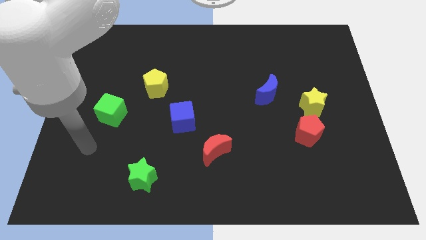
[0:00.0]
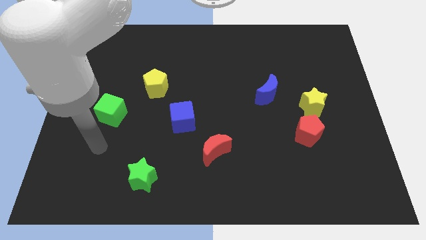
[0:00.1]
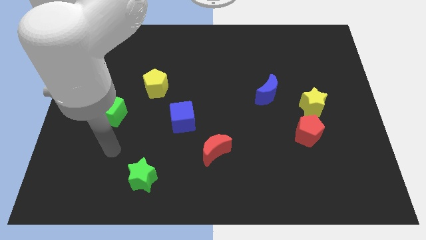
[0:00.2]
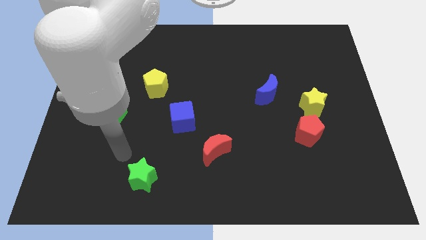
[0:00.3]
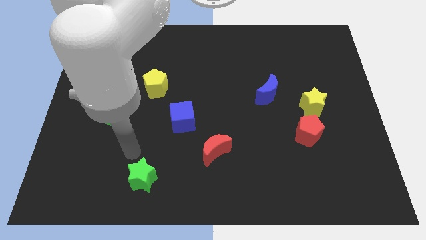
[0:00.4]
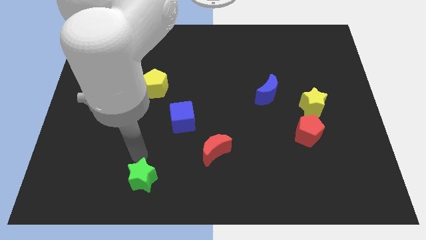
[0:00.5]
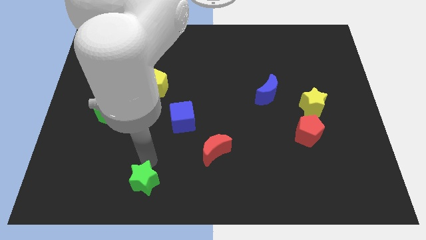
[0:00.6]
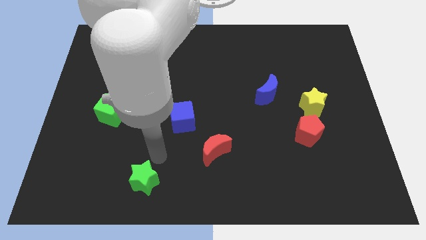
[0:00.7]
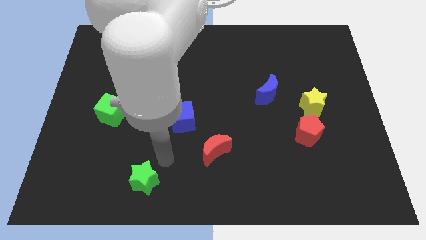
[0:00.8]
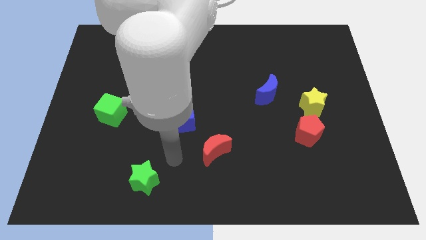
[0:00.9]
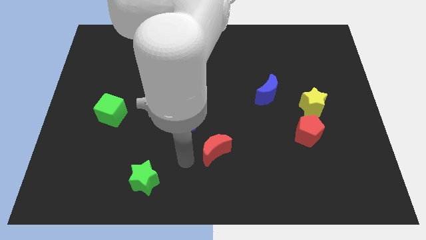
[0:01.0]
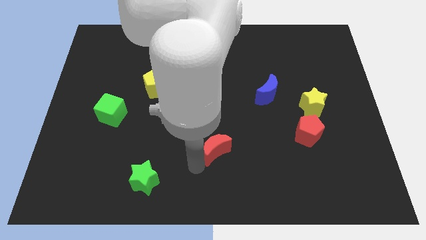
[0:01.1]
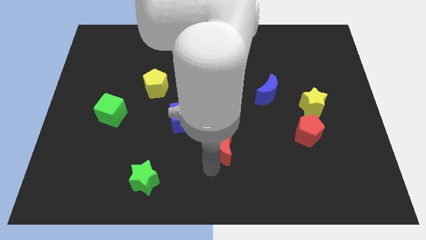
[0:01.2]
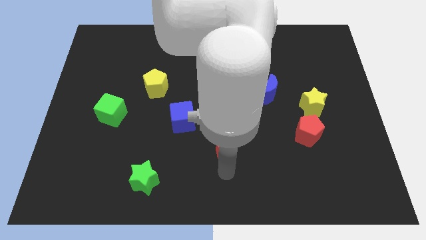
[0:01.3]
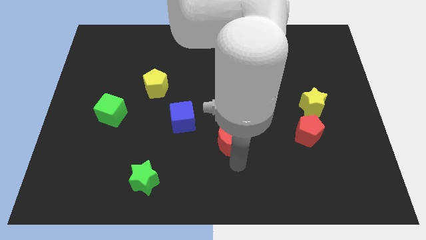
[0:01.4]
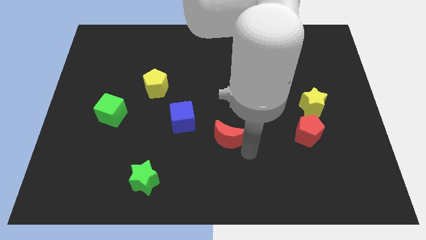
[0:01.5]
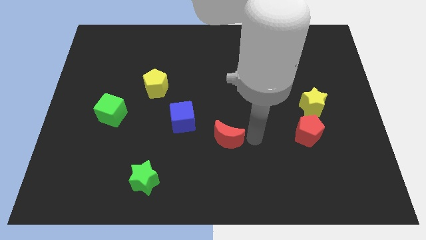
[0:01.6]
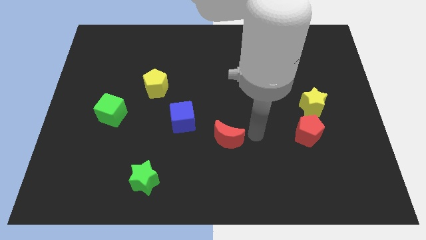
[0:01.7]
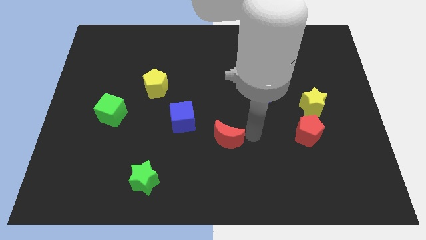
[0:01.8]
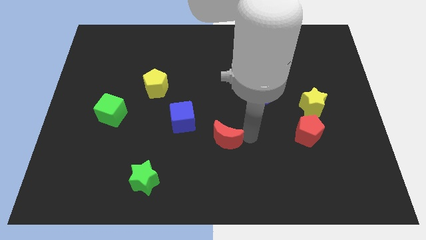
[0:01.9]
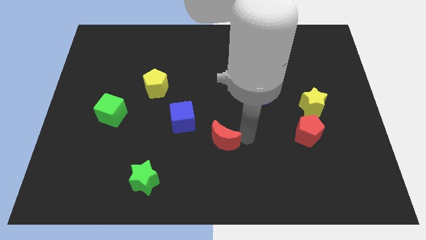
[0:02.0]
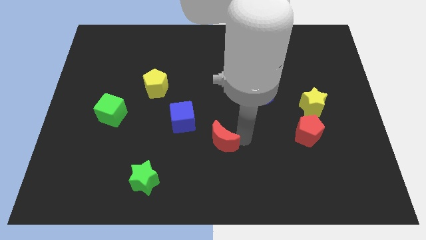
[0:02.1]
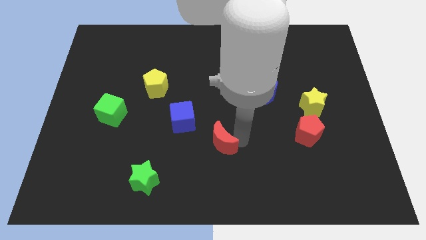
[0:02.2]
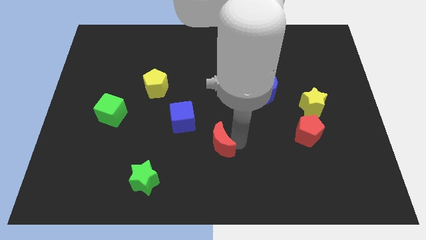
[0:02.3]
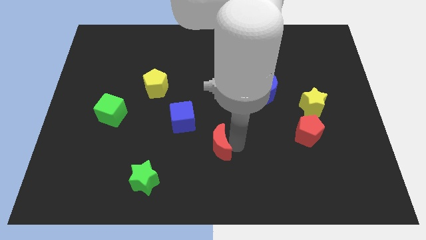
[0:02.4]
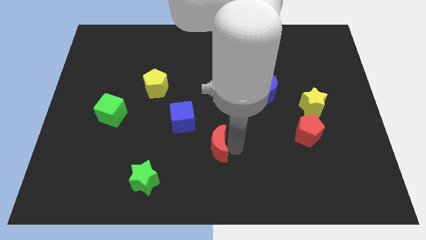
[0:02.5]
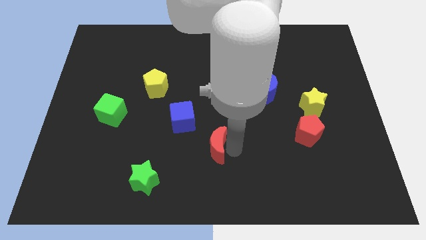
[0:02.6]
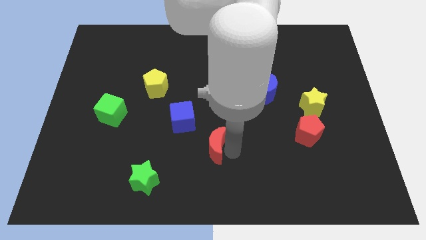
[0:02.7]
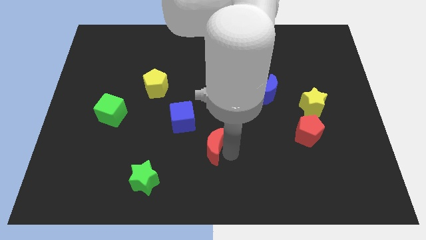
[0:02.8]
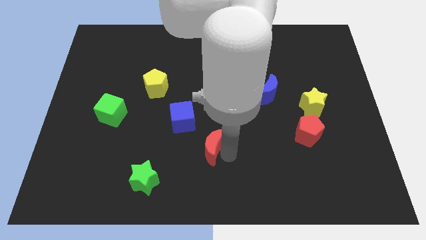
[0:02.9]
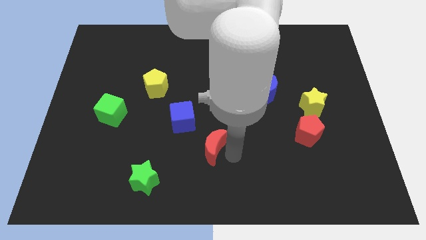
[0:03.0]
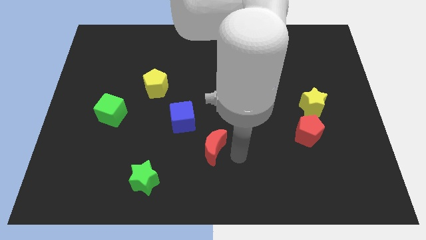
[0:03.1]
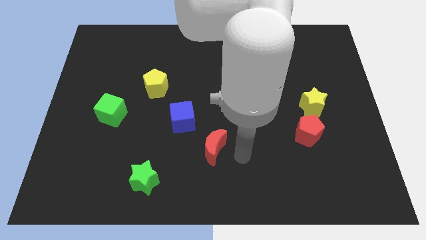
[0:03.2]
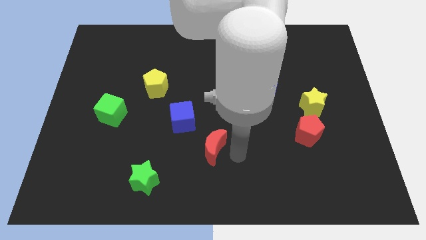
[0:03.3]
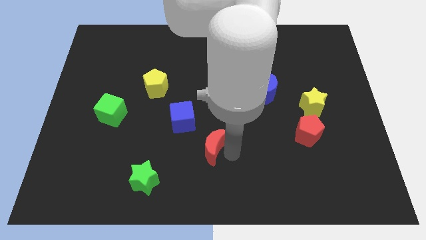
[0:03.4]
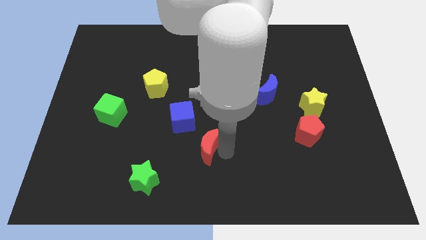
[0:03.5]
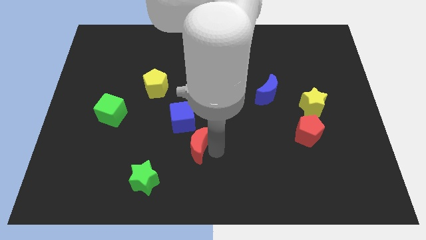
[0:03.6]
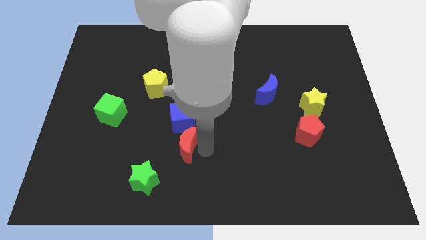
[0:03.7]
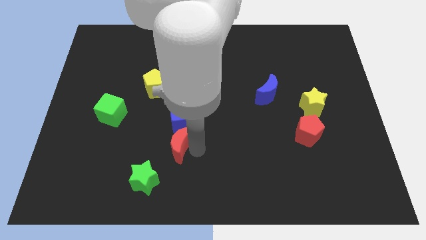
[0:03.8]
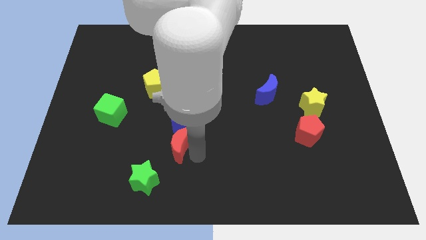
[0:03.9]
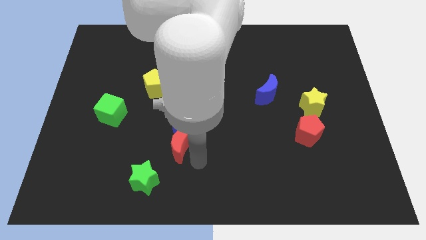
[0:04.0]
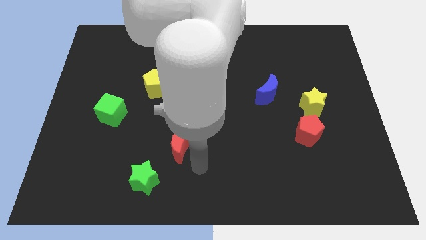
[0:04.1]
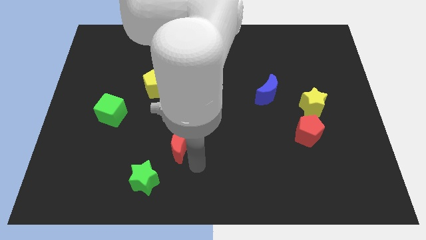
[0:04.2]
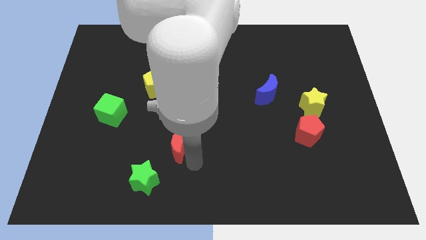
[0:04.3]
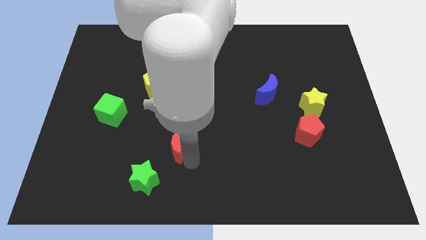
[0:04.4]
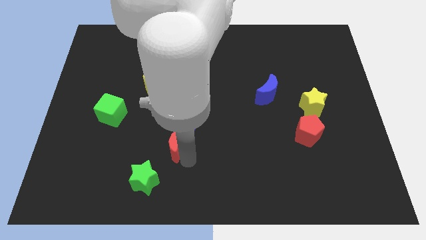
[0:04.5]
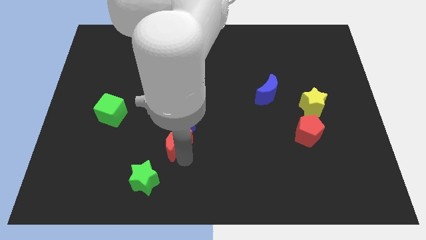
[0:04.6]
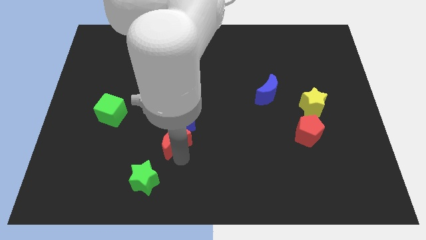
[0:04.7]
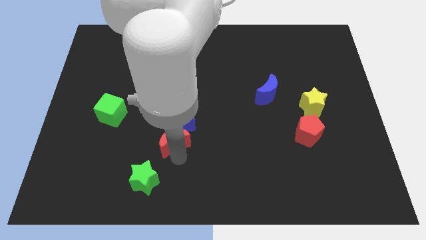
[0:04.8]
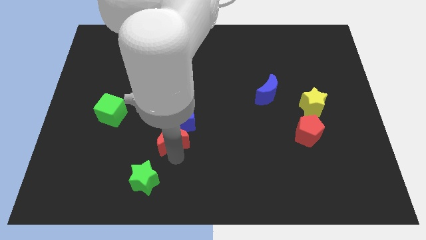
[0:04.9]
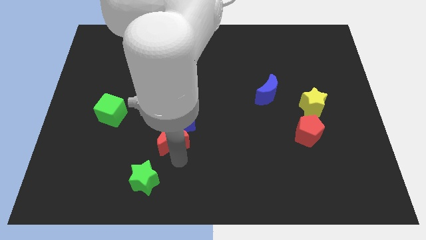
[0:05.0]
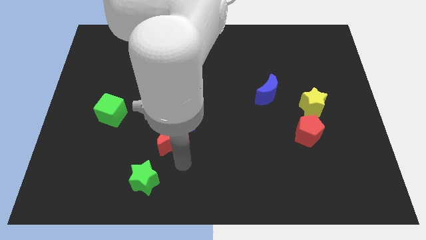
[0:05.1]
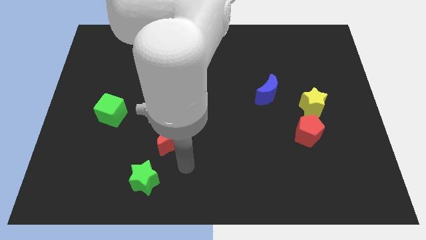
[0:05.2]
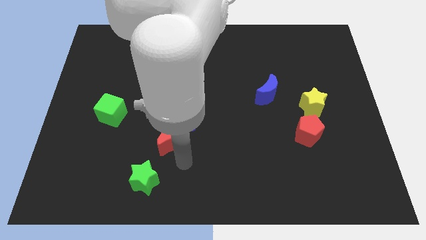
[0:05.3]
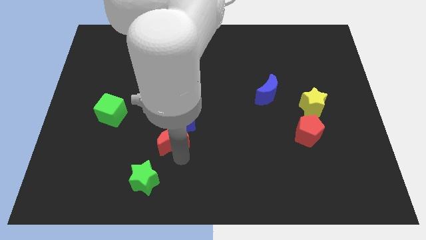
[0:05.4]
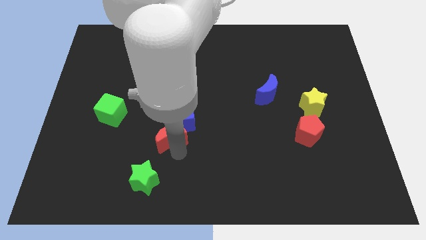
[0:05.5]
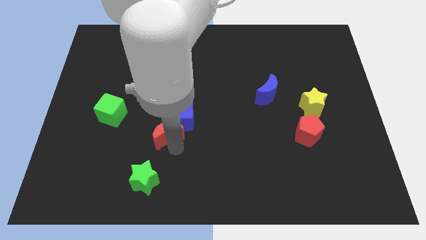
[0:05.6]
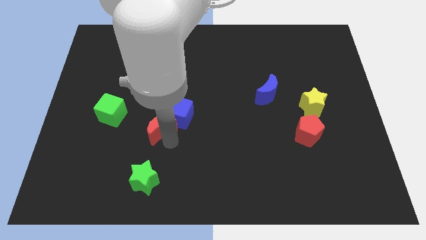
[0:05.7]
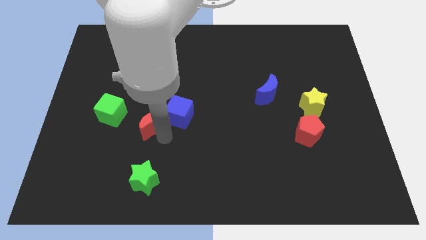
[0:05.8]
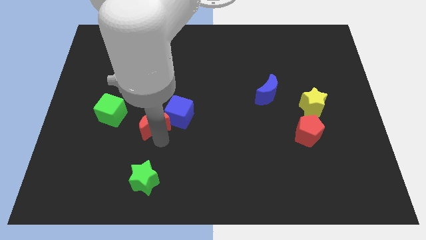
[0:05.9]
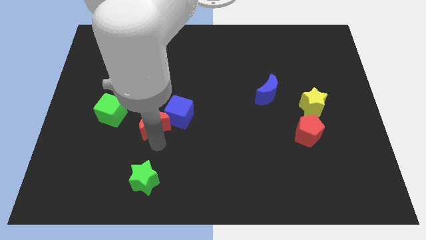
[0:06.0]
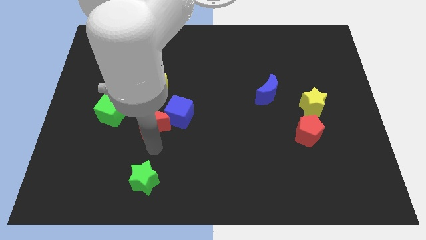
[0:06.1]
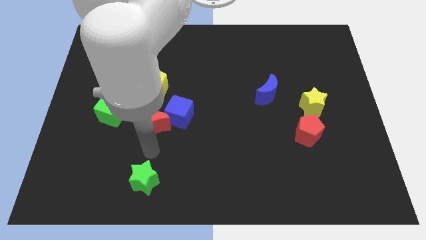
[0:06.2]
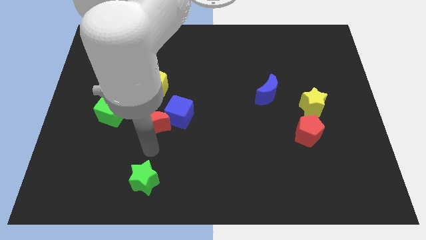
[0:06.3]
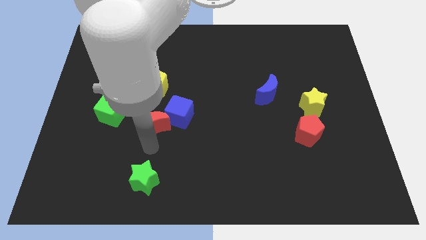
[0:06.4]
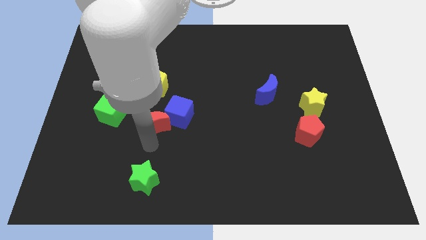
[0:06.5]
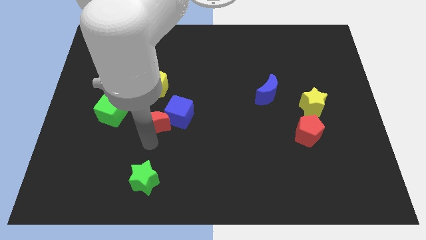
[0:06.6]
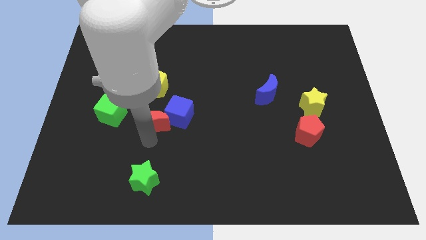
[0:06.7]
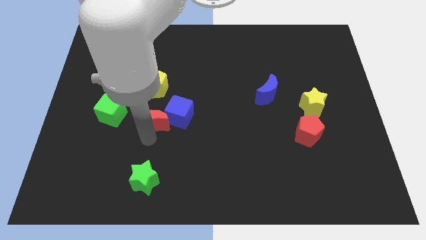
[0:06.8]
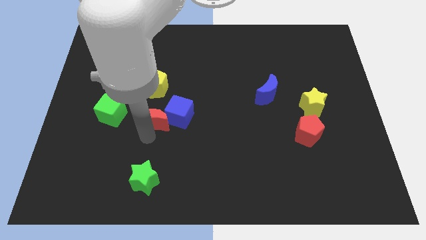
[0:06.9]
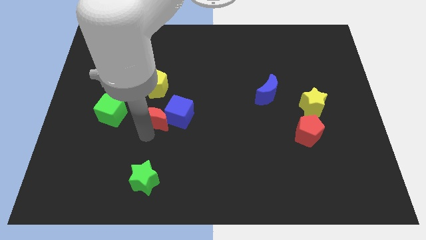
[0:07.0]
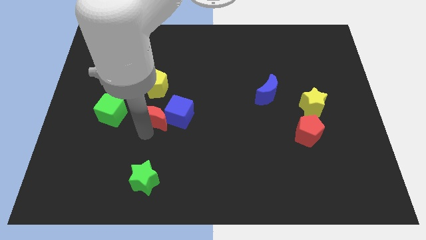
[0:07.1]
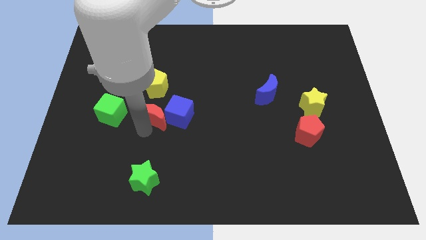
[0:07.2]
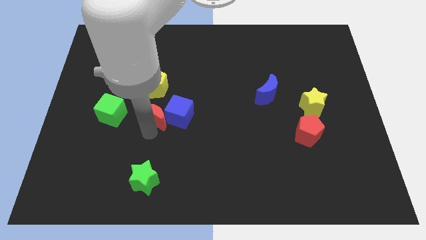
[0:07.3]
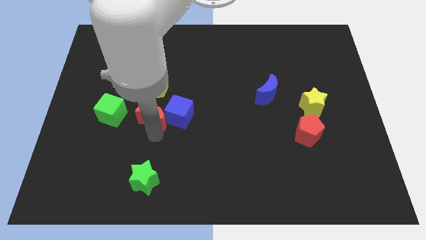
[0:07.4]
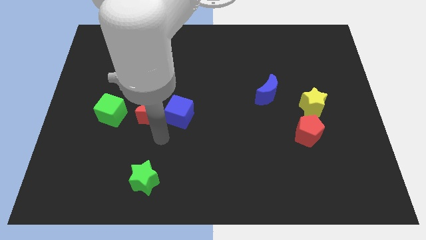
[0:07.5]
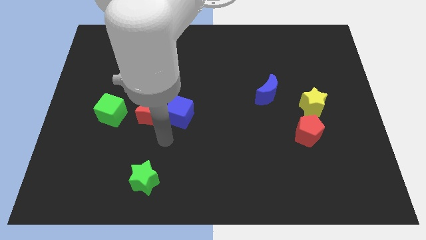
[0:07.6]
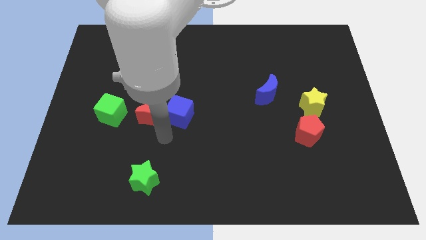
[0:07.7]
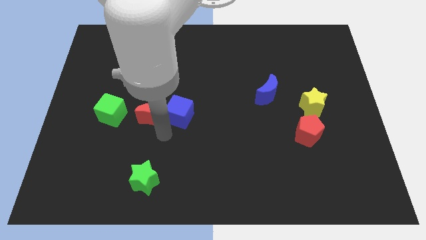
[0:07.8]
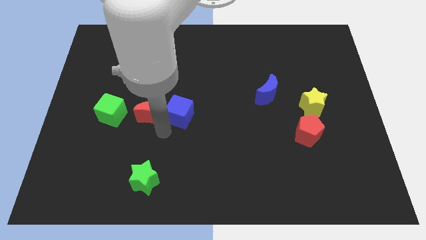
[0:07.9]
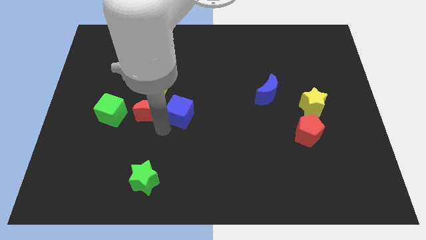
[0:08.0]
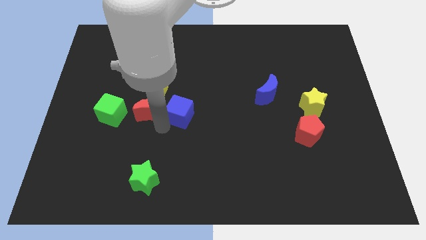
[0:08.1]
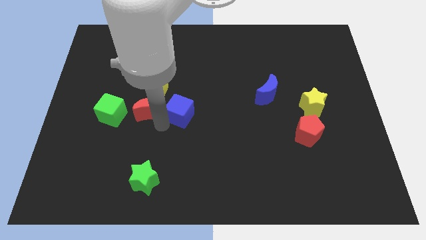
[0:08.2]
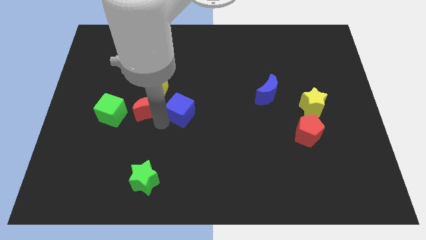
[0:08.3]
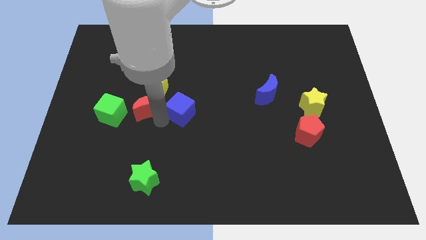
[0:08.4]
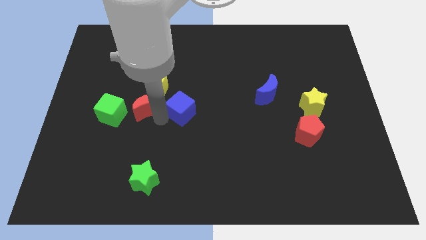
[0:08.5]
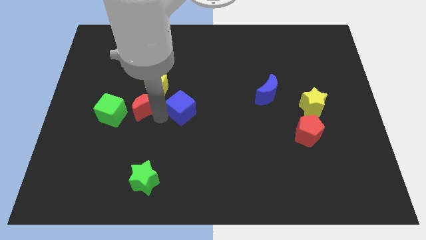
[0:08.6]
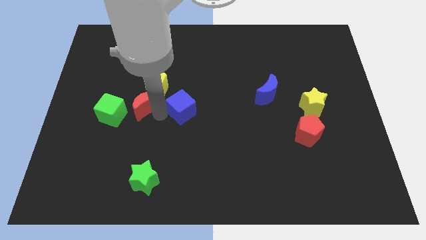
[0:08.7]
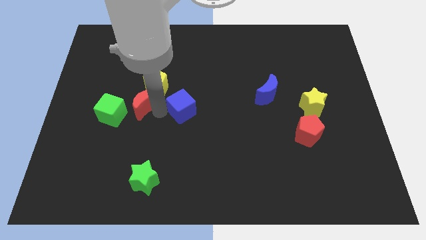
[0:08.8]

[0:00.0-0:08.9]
push the red moon upwards and then to the left
